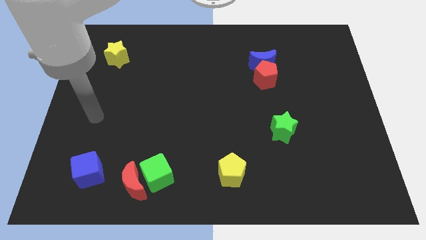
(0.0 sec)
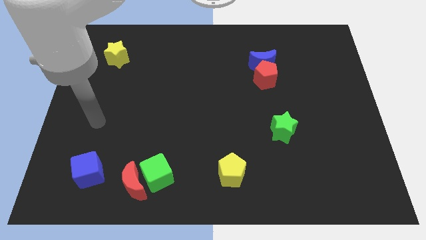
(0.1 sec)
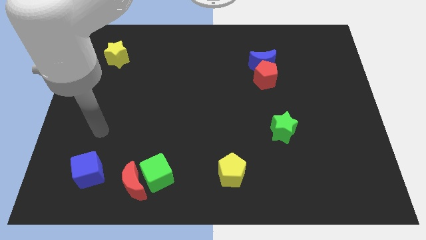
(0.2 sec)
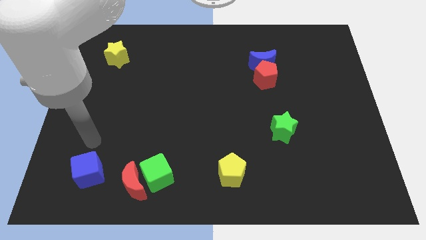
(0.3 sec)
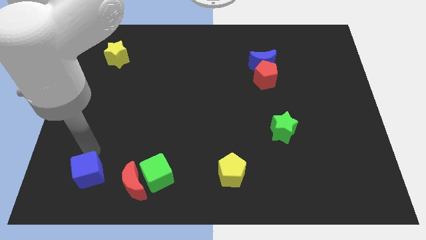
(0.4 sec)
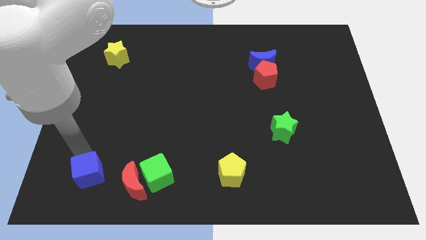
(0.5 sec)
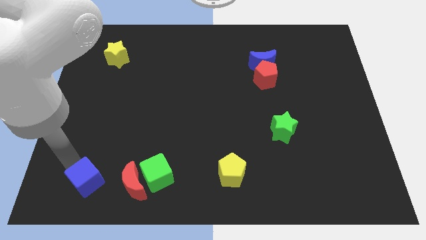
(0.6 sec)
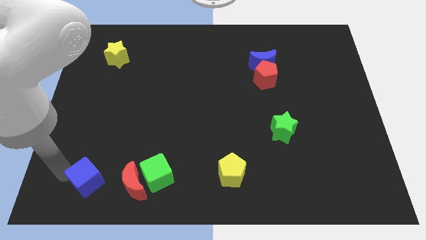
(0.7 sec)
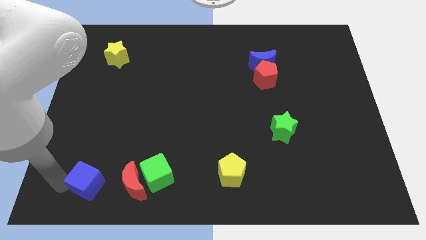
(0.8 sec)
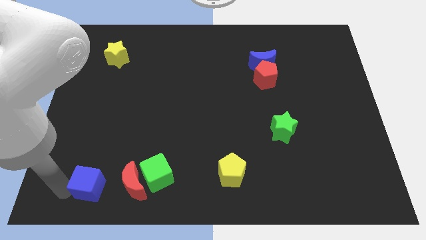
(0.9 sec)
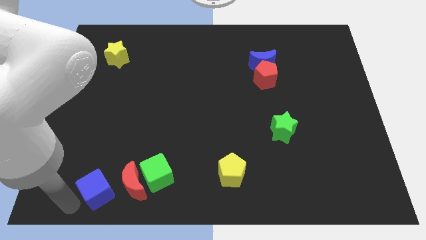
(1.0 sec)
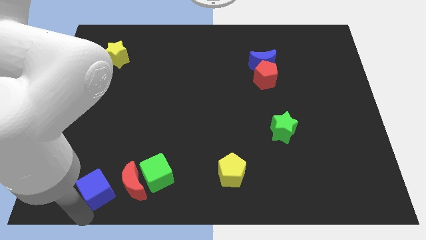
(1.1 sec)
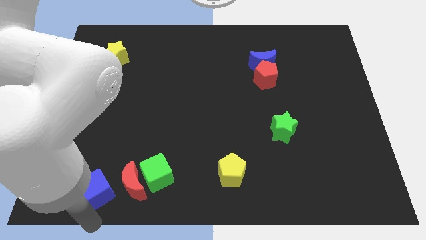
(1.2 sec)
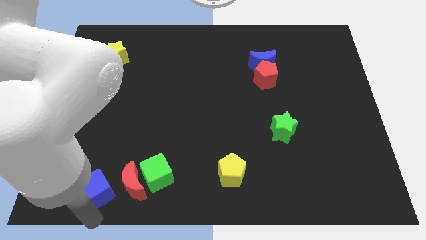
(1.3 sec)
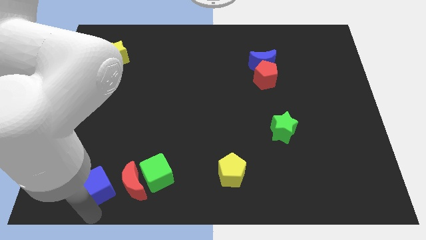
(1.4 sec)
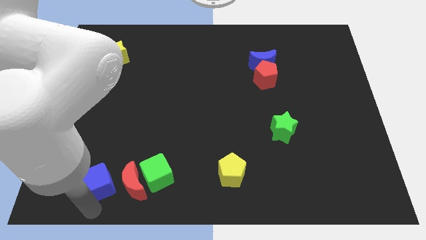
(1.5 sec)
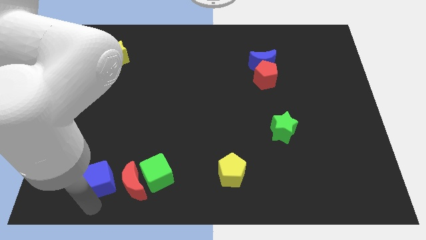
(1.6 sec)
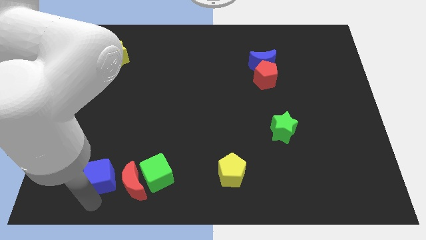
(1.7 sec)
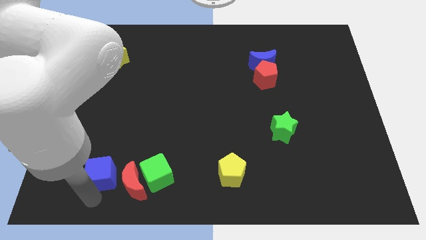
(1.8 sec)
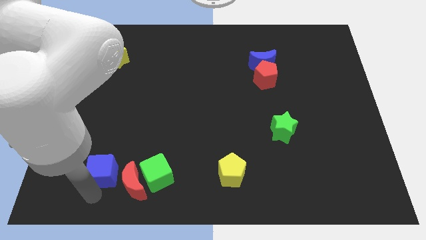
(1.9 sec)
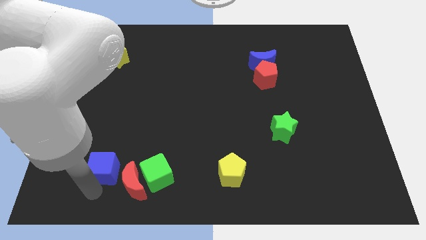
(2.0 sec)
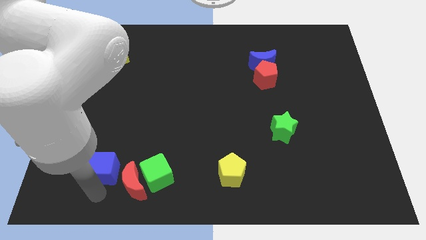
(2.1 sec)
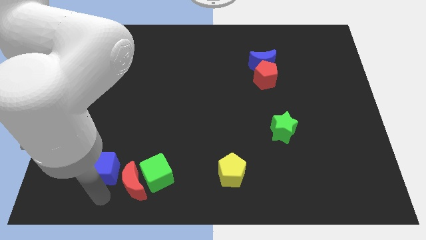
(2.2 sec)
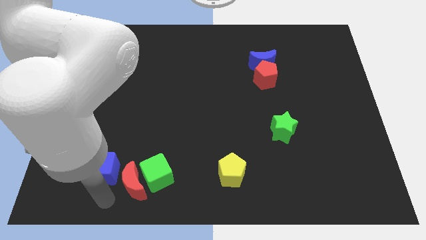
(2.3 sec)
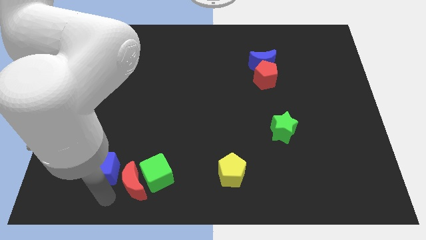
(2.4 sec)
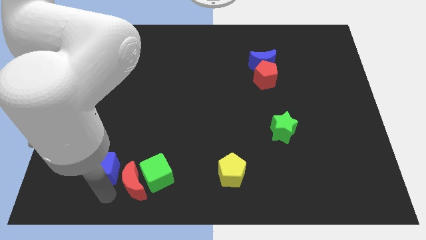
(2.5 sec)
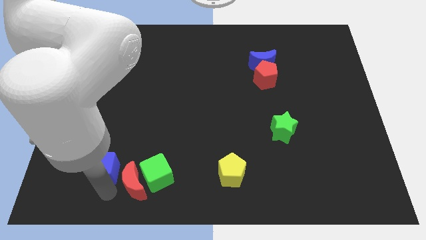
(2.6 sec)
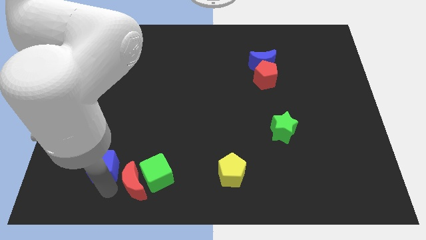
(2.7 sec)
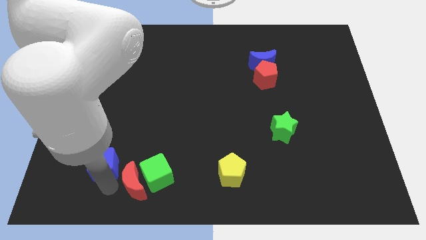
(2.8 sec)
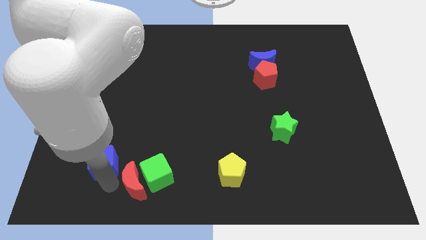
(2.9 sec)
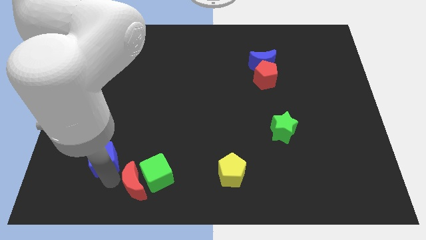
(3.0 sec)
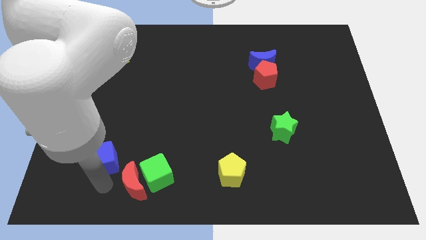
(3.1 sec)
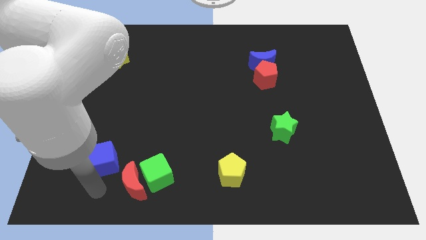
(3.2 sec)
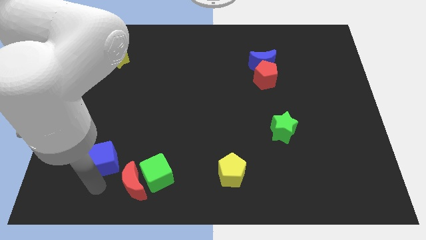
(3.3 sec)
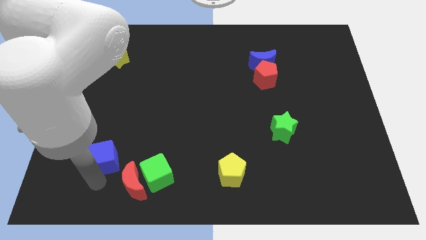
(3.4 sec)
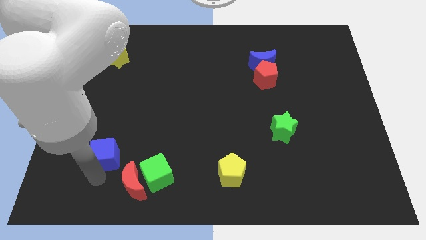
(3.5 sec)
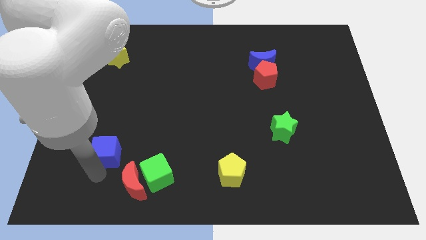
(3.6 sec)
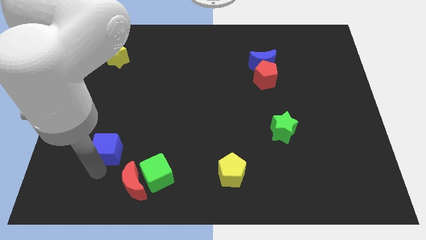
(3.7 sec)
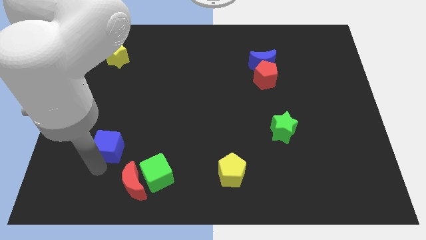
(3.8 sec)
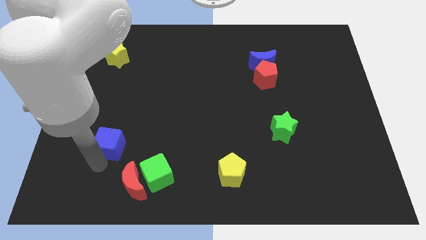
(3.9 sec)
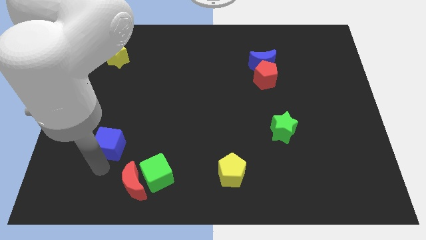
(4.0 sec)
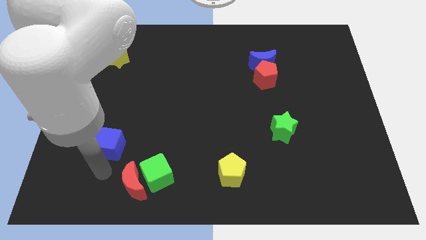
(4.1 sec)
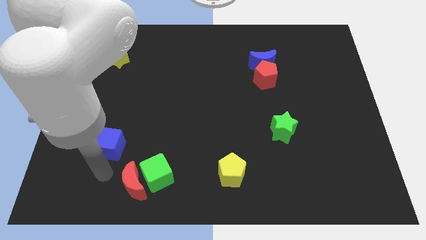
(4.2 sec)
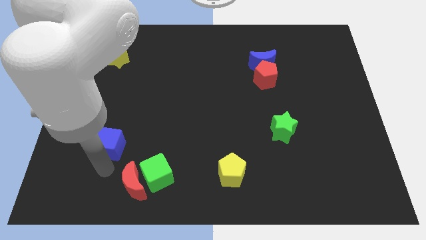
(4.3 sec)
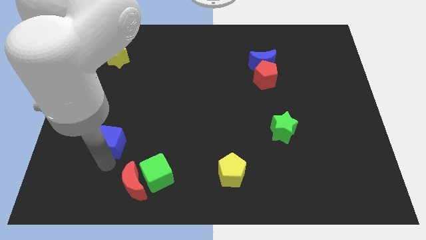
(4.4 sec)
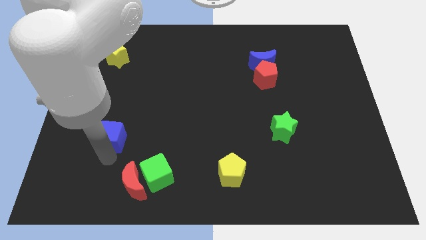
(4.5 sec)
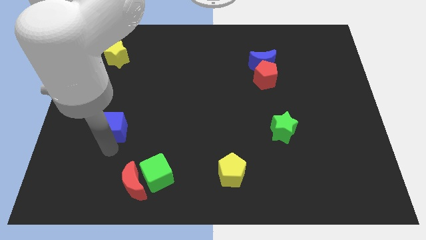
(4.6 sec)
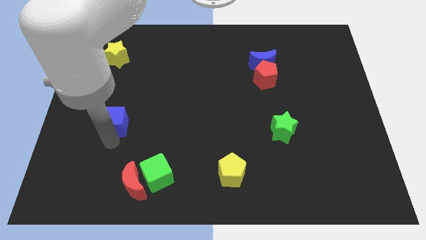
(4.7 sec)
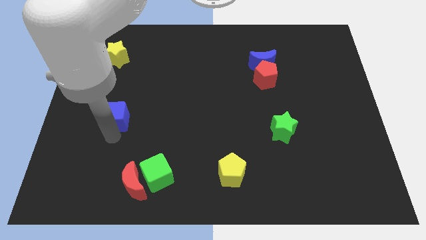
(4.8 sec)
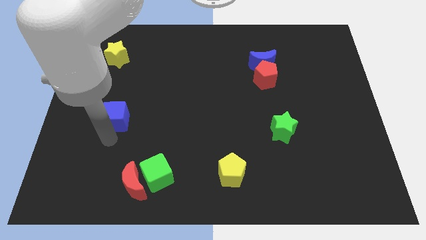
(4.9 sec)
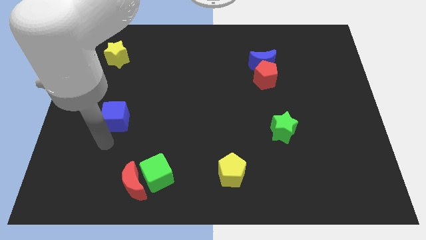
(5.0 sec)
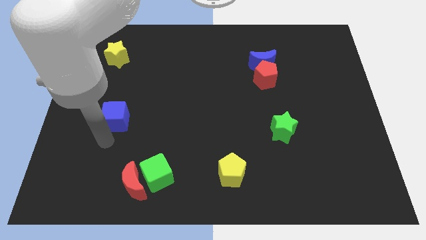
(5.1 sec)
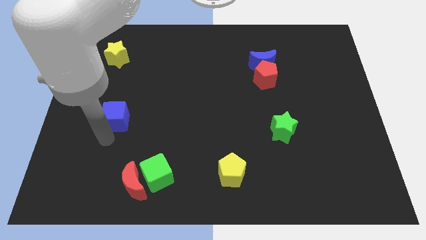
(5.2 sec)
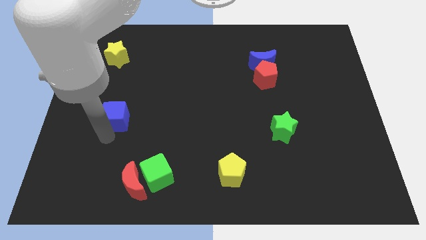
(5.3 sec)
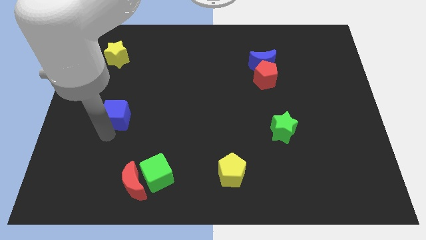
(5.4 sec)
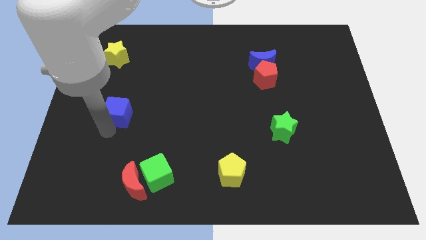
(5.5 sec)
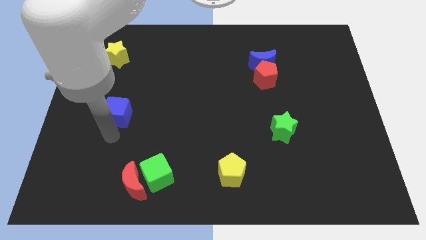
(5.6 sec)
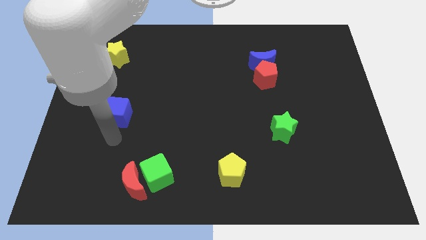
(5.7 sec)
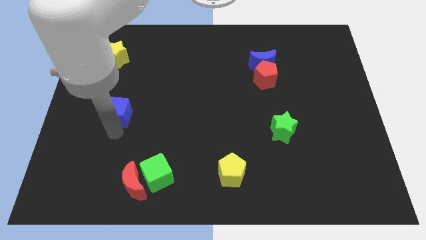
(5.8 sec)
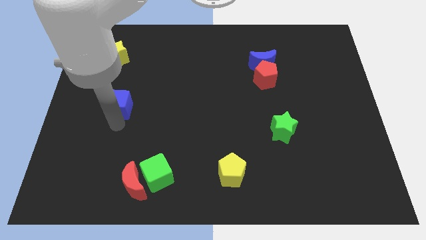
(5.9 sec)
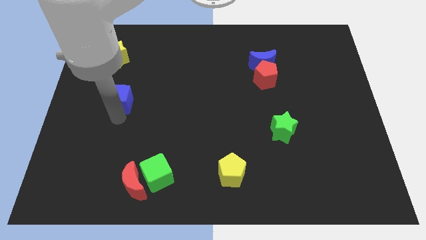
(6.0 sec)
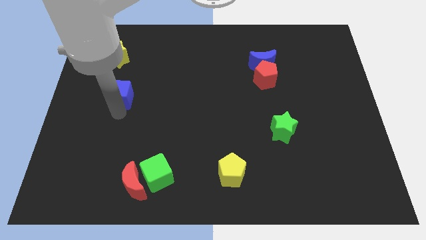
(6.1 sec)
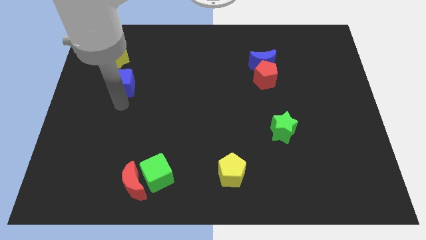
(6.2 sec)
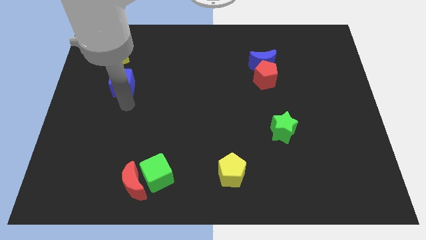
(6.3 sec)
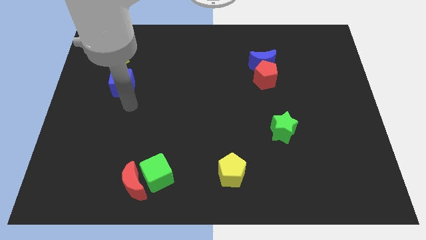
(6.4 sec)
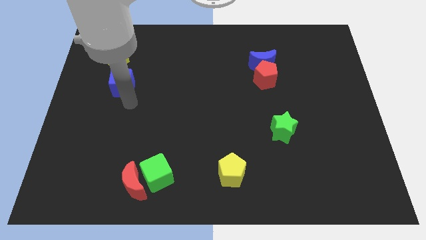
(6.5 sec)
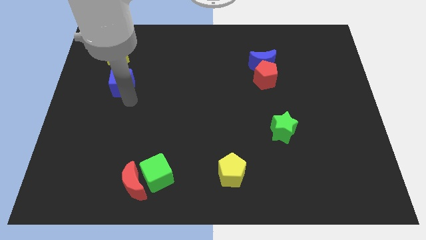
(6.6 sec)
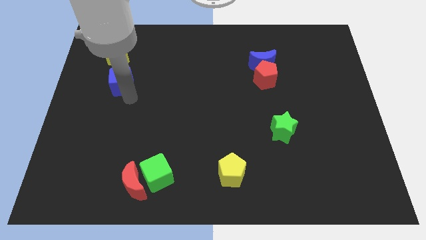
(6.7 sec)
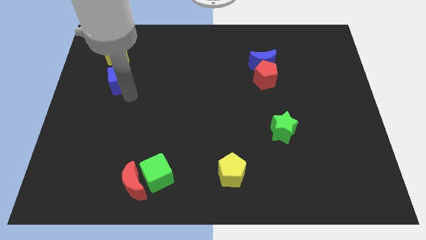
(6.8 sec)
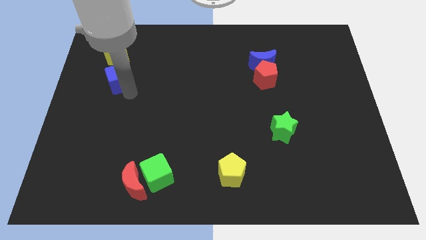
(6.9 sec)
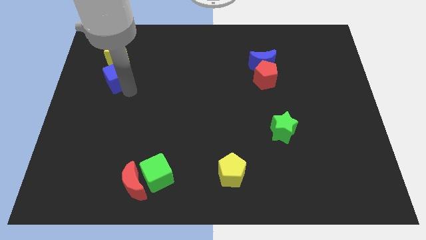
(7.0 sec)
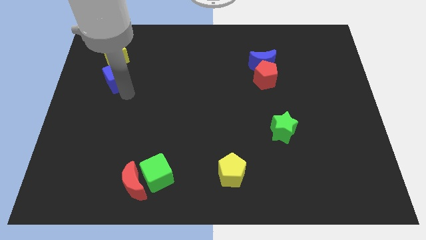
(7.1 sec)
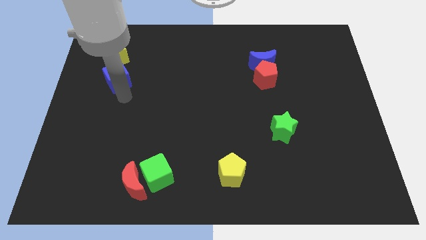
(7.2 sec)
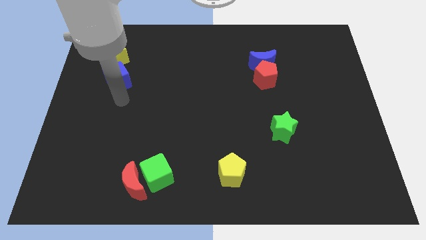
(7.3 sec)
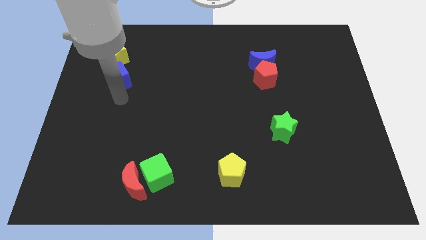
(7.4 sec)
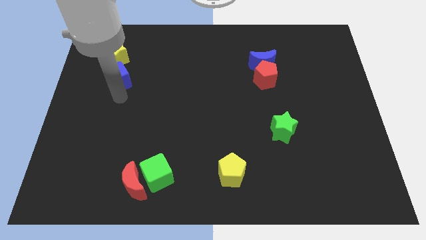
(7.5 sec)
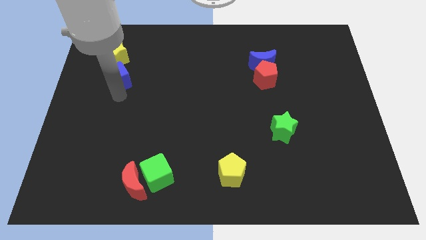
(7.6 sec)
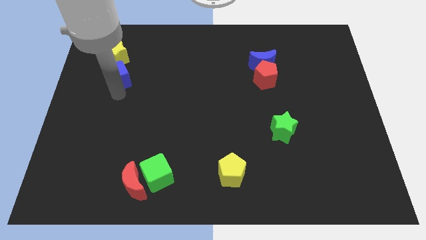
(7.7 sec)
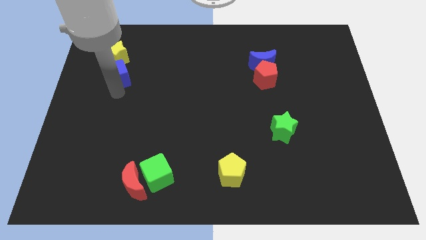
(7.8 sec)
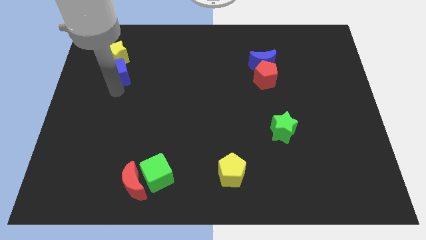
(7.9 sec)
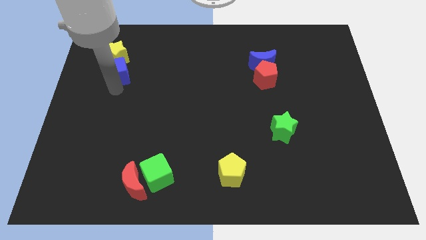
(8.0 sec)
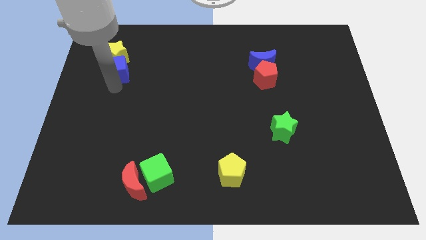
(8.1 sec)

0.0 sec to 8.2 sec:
put the blue cube close to the yellow star
